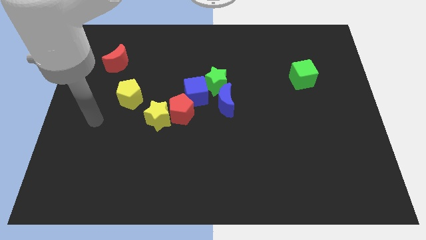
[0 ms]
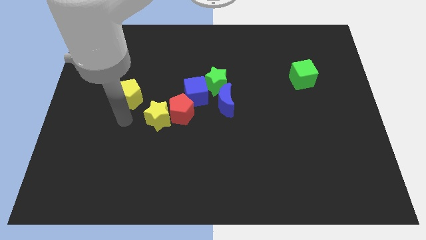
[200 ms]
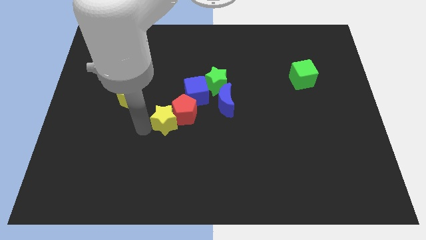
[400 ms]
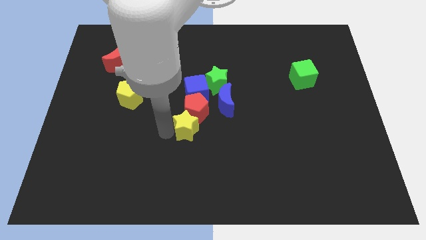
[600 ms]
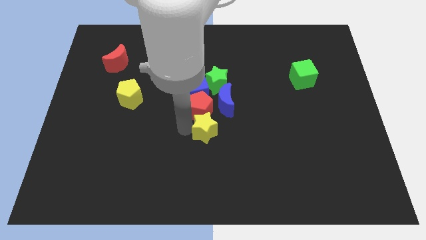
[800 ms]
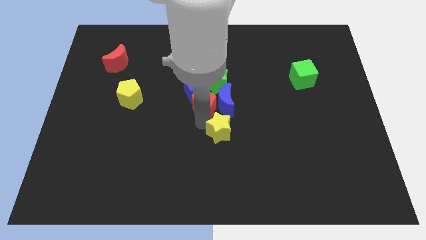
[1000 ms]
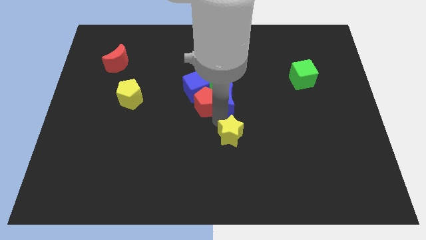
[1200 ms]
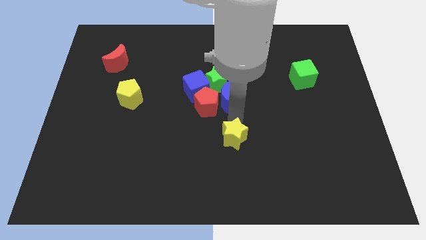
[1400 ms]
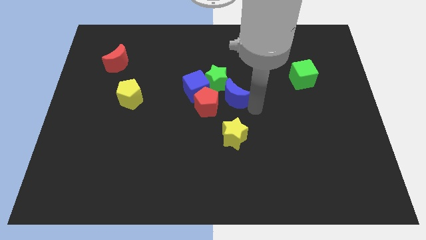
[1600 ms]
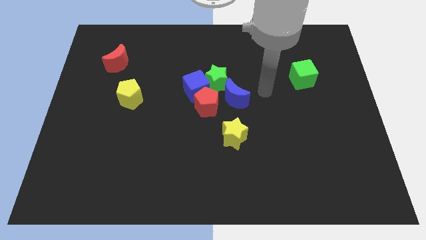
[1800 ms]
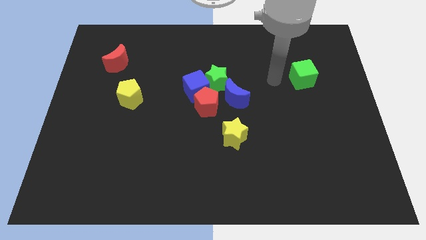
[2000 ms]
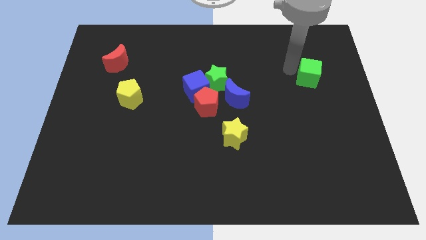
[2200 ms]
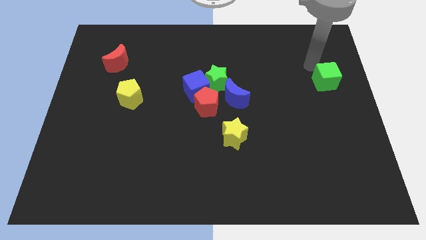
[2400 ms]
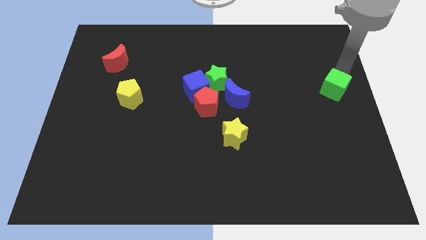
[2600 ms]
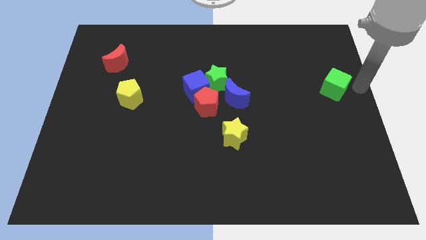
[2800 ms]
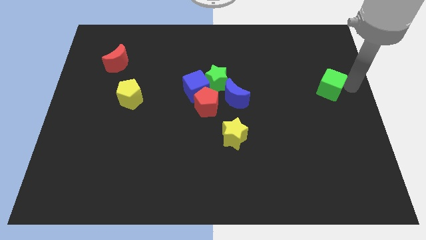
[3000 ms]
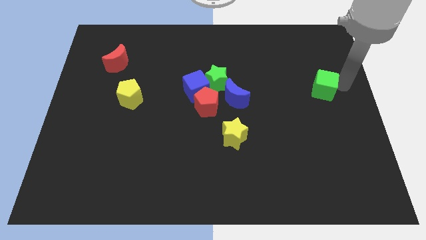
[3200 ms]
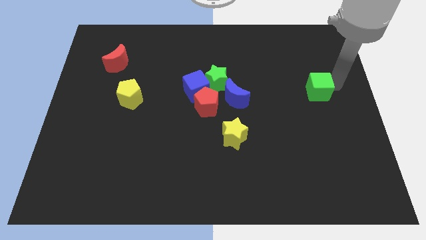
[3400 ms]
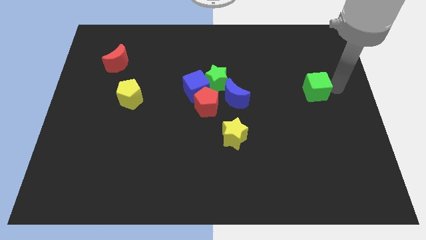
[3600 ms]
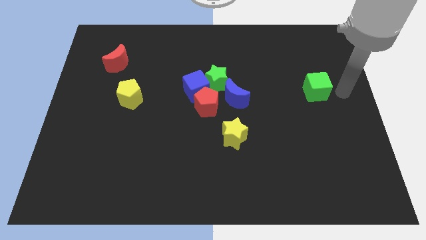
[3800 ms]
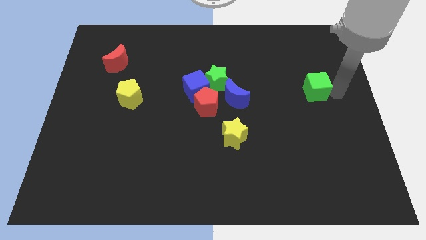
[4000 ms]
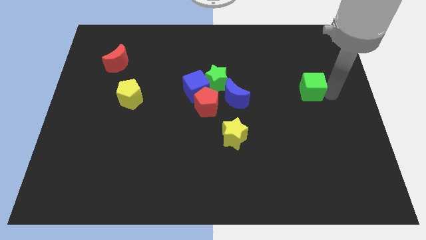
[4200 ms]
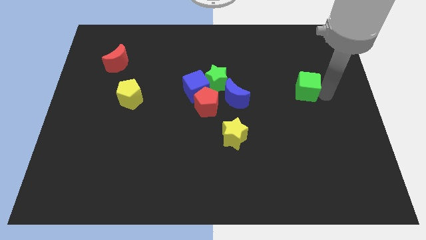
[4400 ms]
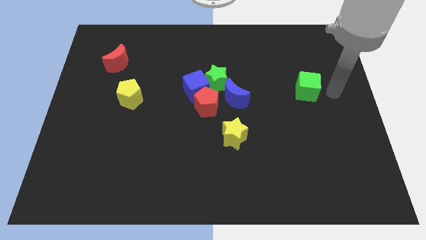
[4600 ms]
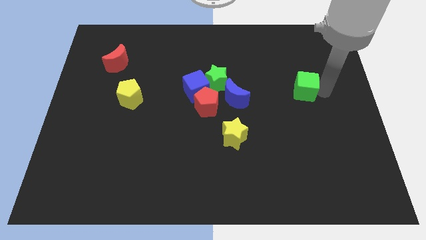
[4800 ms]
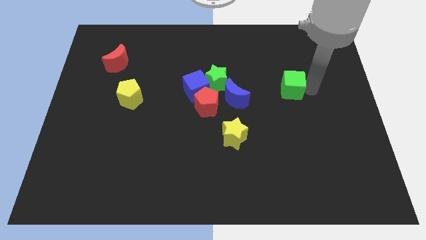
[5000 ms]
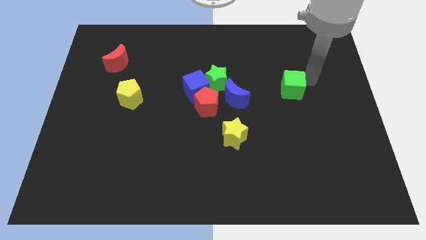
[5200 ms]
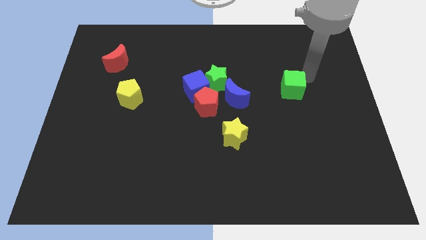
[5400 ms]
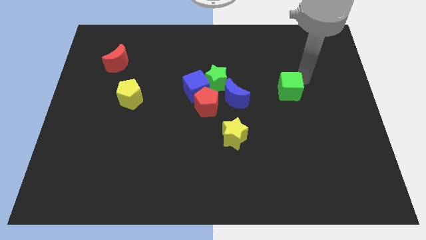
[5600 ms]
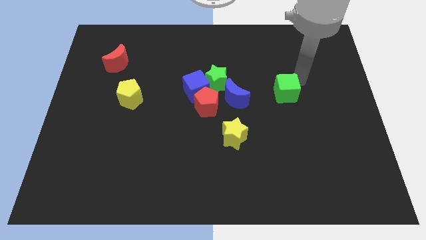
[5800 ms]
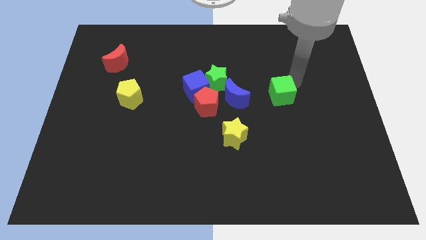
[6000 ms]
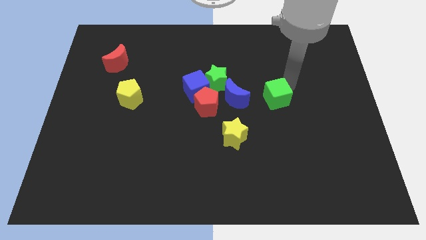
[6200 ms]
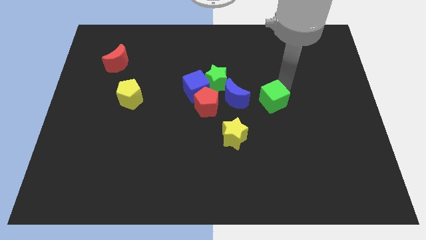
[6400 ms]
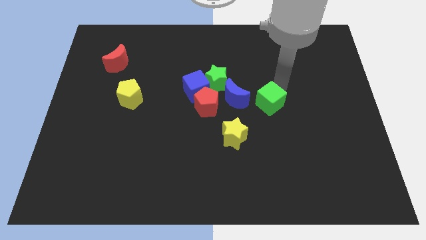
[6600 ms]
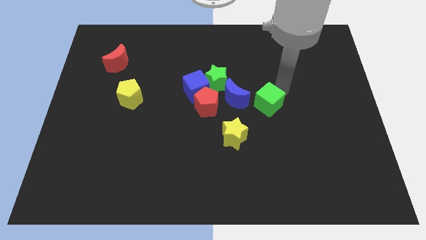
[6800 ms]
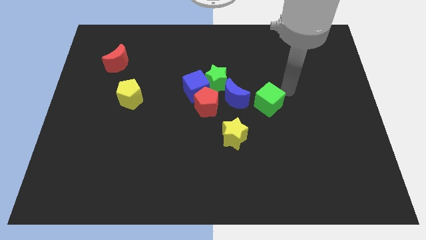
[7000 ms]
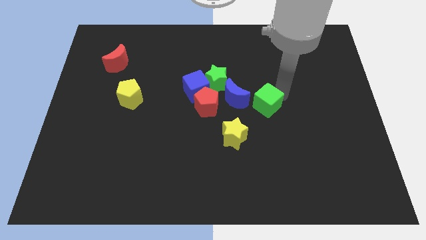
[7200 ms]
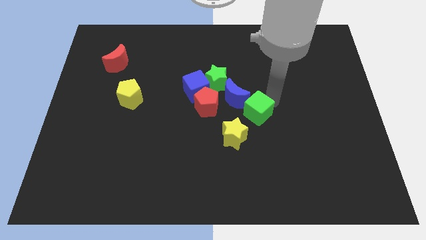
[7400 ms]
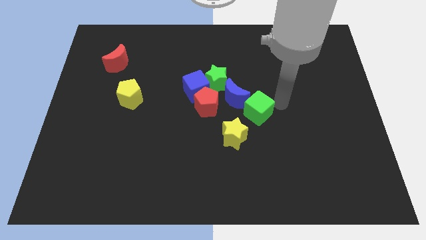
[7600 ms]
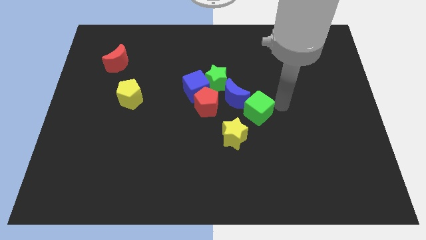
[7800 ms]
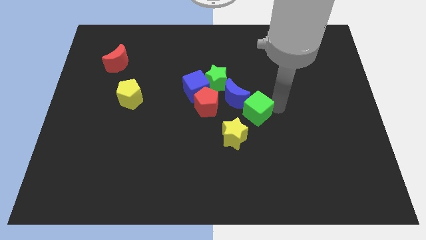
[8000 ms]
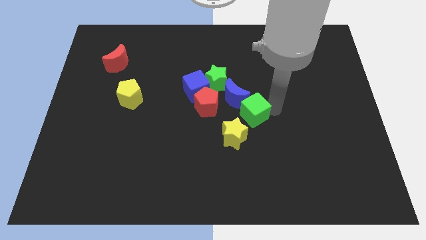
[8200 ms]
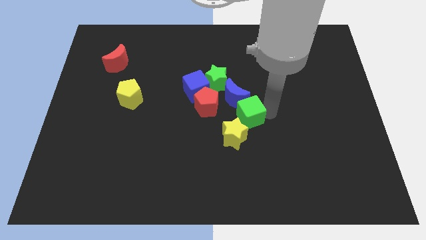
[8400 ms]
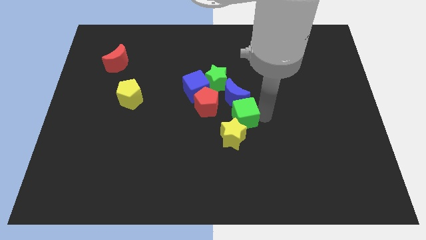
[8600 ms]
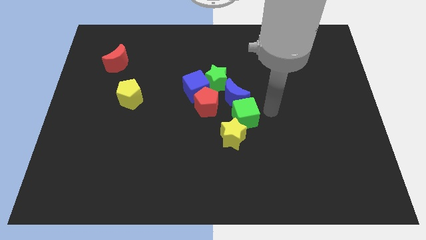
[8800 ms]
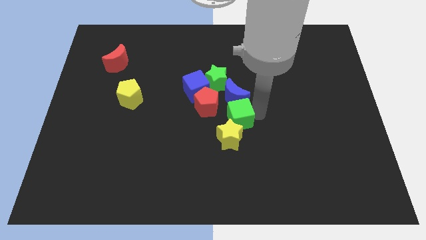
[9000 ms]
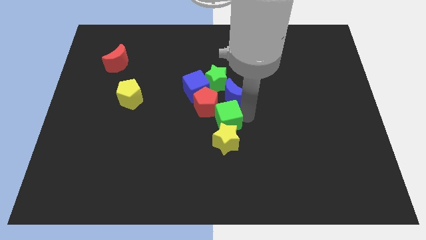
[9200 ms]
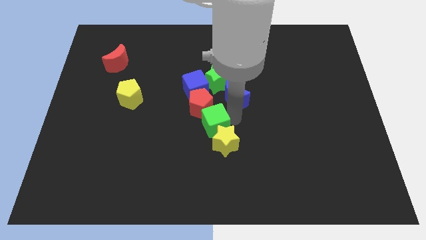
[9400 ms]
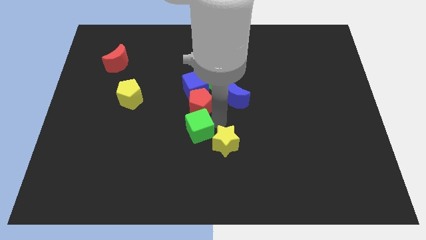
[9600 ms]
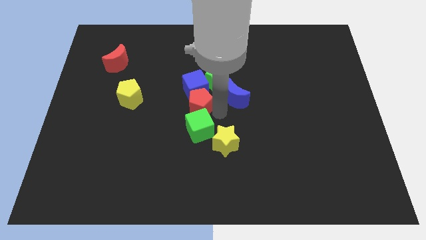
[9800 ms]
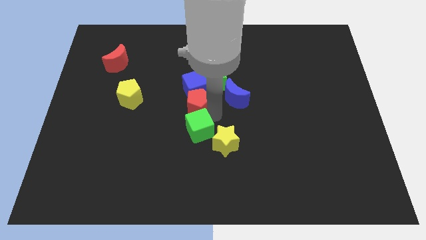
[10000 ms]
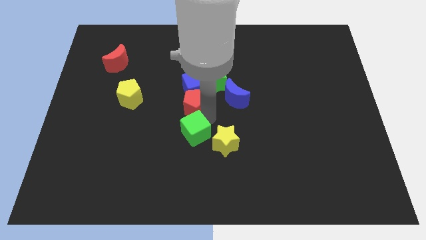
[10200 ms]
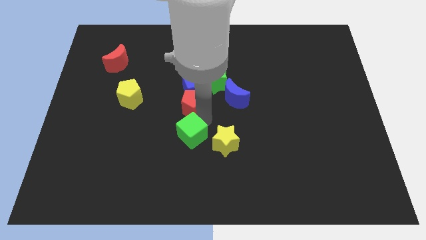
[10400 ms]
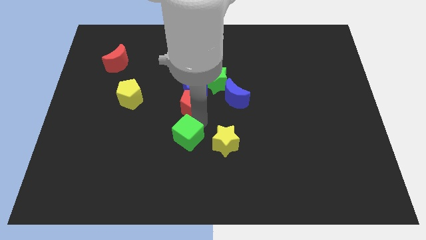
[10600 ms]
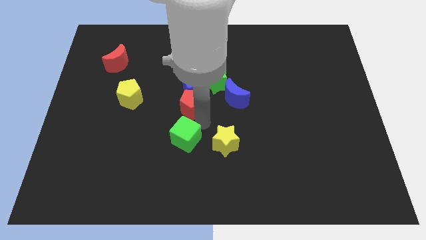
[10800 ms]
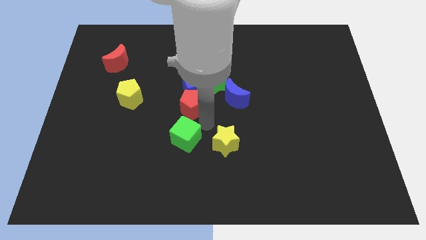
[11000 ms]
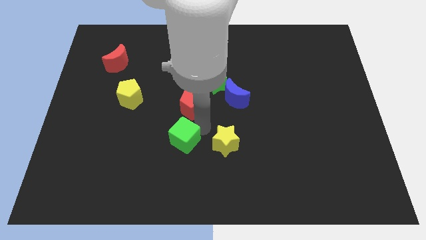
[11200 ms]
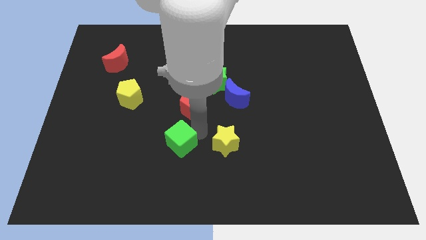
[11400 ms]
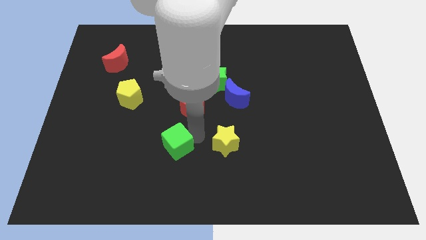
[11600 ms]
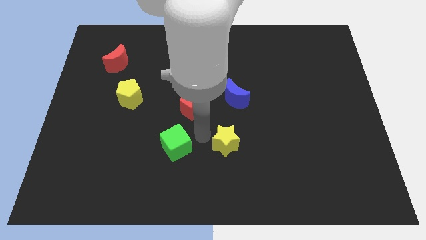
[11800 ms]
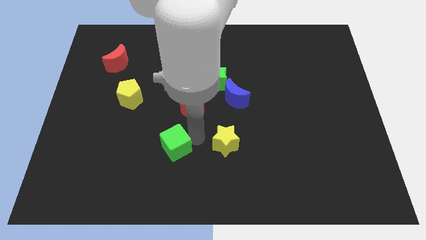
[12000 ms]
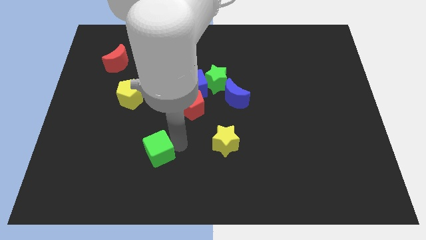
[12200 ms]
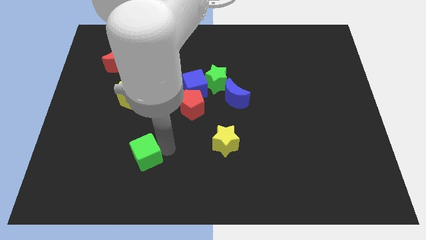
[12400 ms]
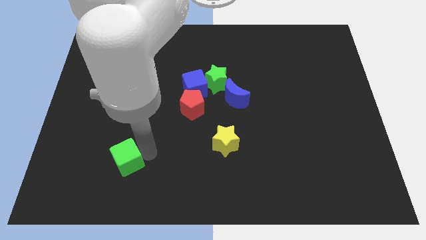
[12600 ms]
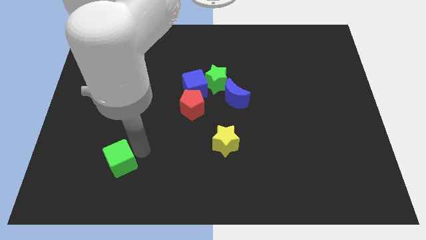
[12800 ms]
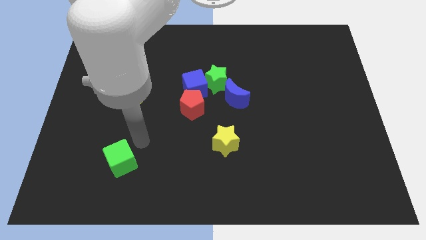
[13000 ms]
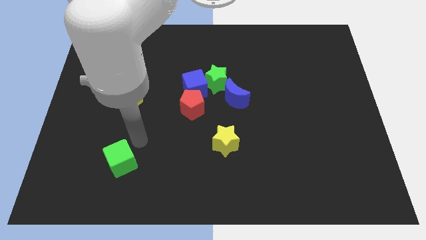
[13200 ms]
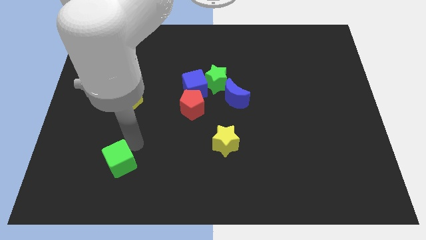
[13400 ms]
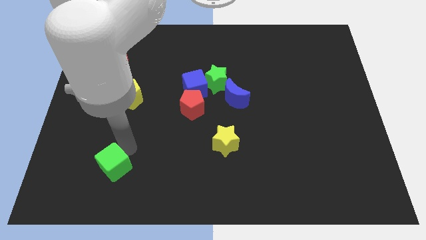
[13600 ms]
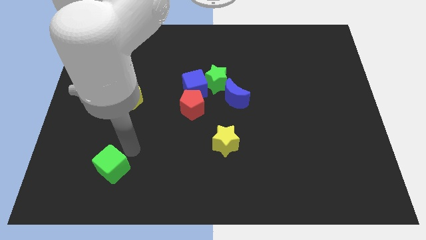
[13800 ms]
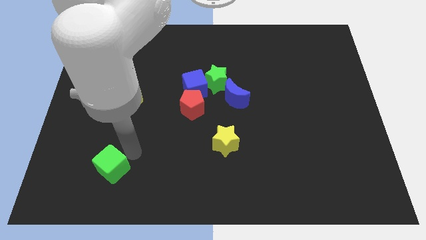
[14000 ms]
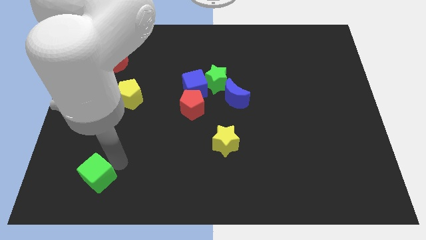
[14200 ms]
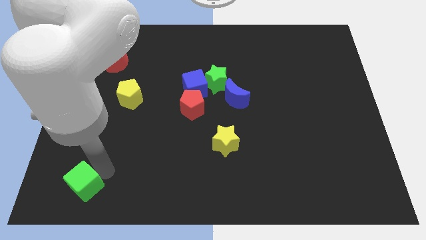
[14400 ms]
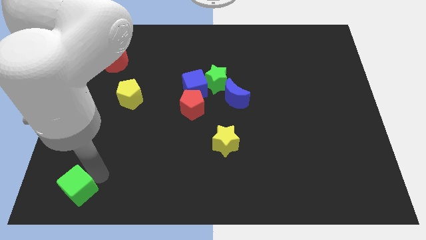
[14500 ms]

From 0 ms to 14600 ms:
put the green cube to the lower left corner
